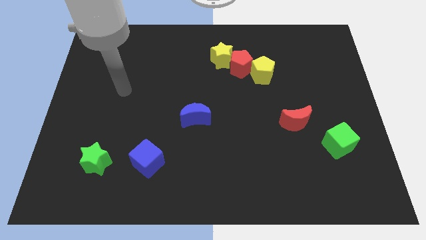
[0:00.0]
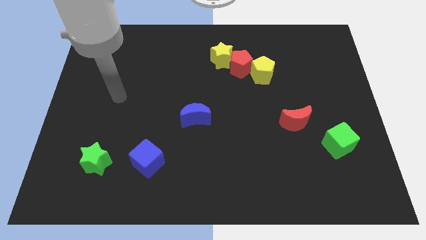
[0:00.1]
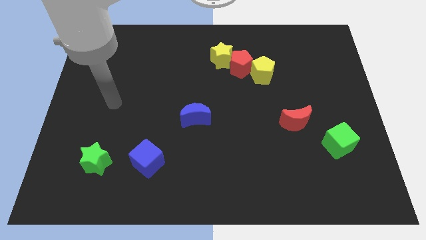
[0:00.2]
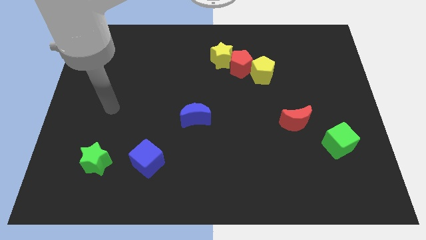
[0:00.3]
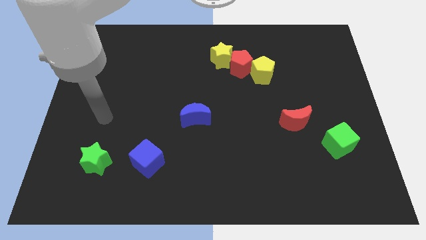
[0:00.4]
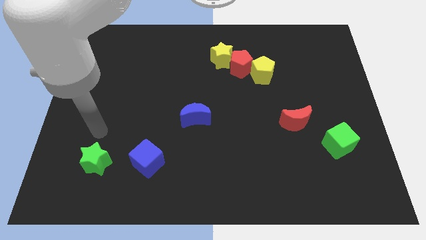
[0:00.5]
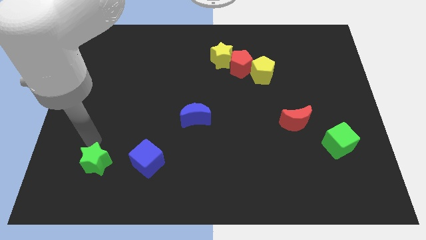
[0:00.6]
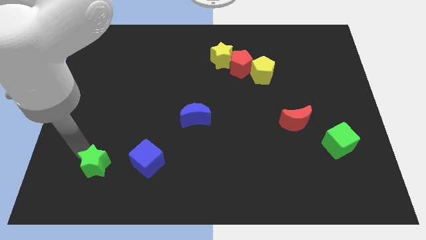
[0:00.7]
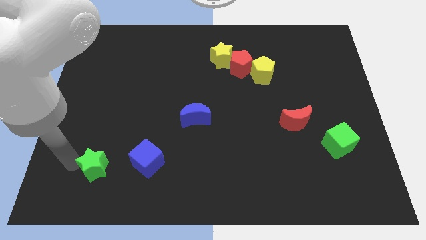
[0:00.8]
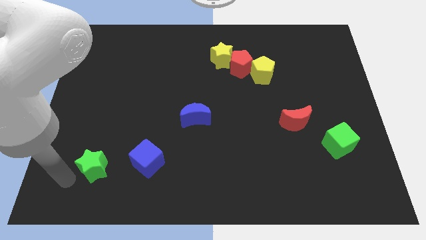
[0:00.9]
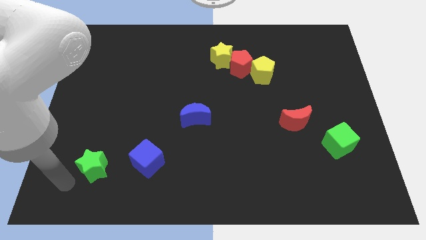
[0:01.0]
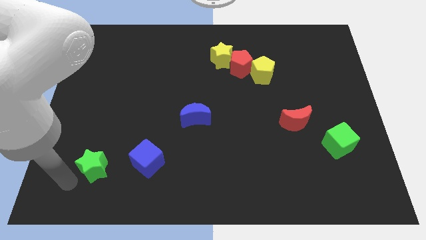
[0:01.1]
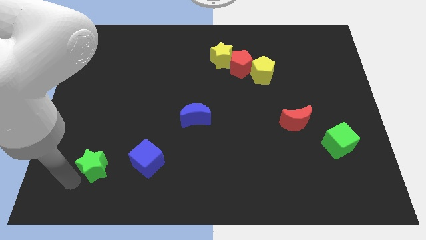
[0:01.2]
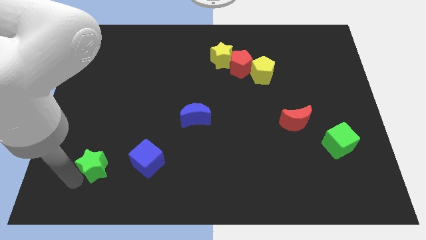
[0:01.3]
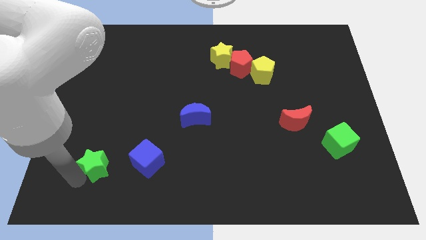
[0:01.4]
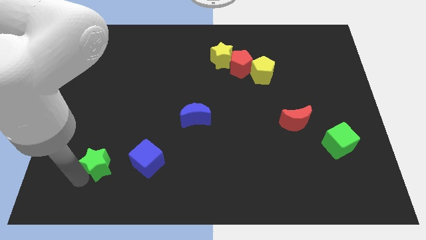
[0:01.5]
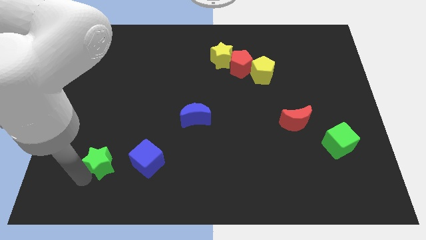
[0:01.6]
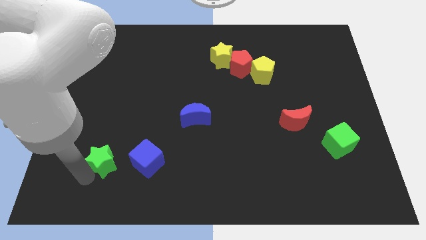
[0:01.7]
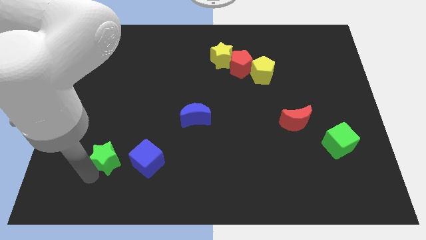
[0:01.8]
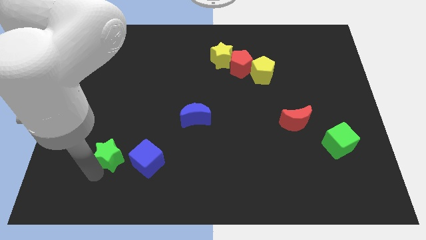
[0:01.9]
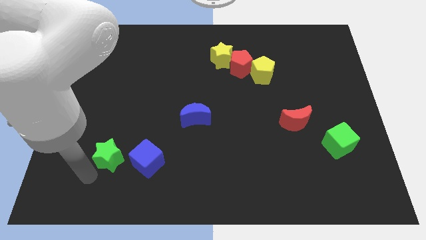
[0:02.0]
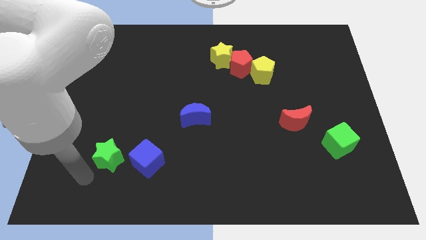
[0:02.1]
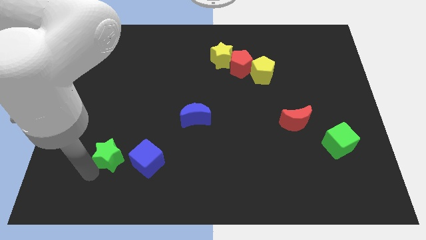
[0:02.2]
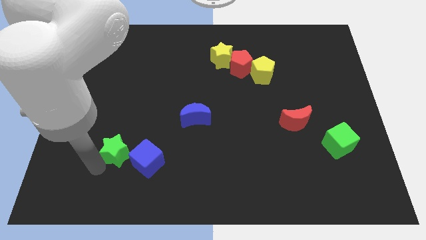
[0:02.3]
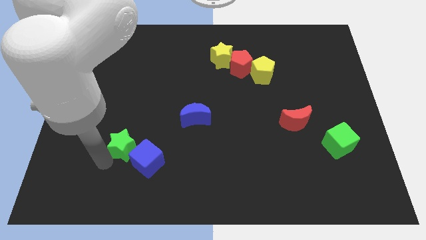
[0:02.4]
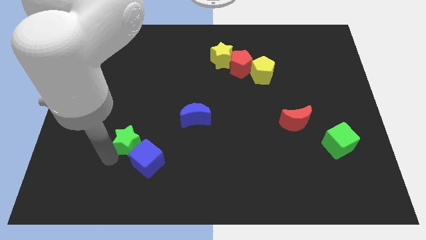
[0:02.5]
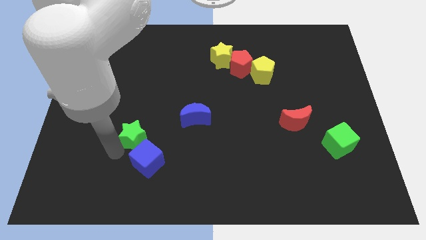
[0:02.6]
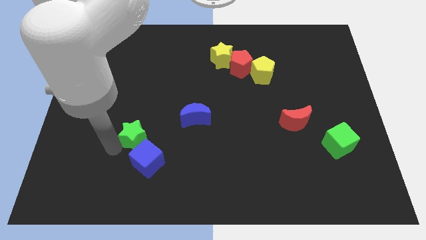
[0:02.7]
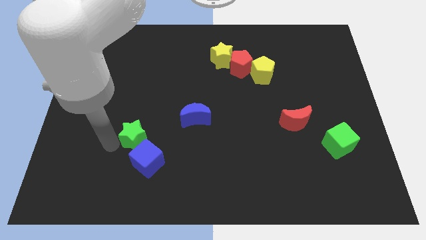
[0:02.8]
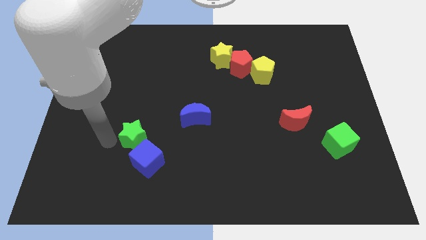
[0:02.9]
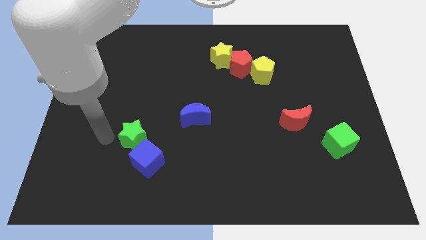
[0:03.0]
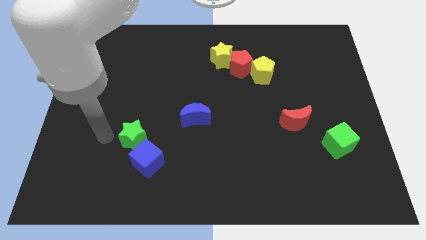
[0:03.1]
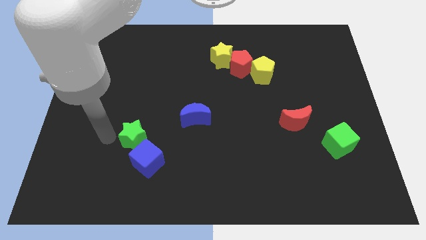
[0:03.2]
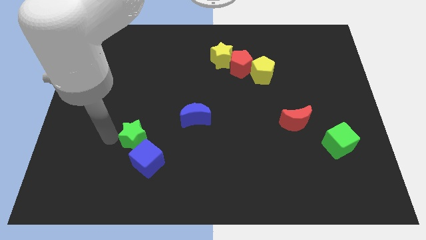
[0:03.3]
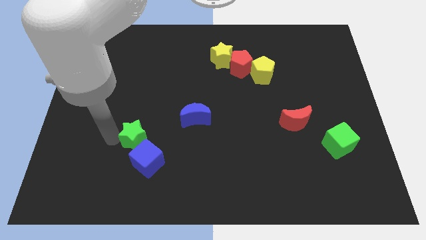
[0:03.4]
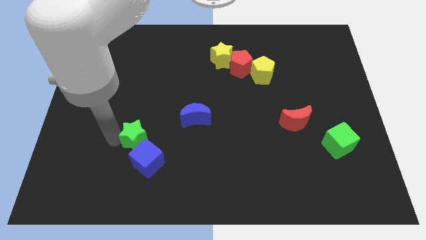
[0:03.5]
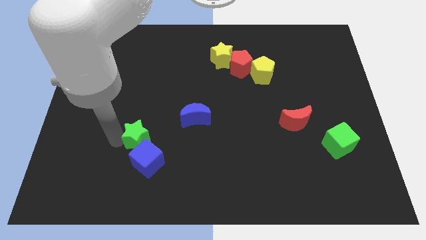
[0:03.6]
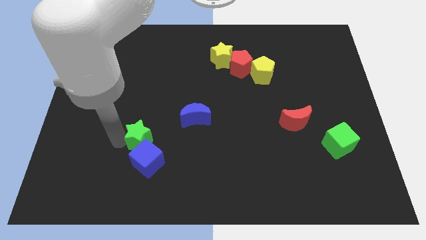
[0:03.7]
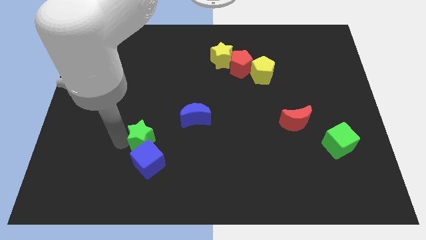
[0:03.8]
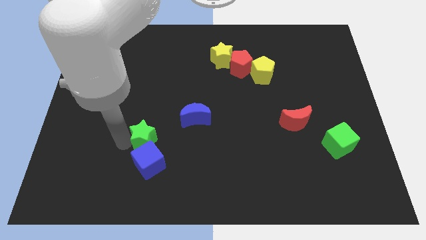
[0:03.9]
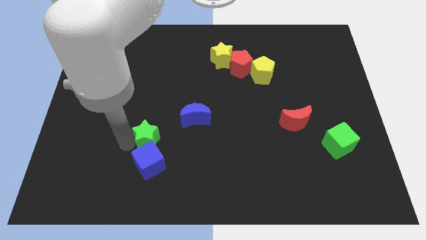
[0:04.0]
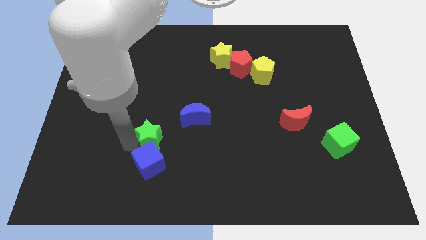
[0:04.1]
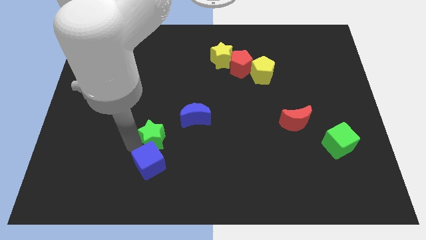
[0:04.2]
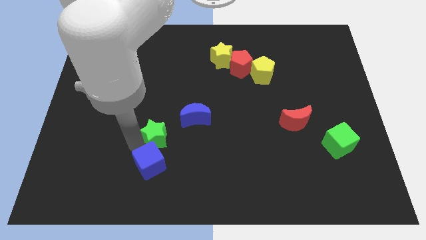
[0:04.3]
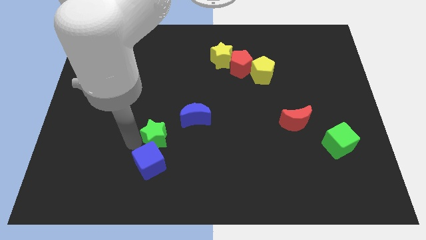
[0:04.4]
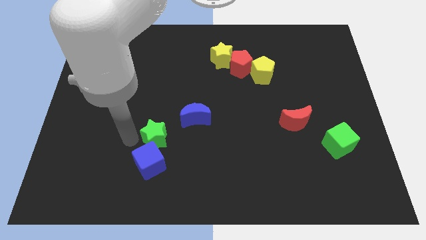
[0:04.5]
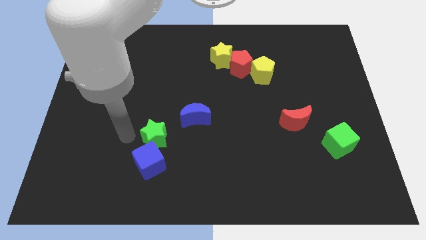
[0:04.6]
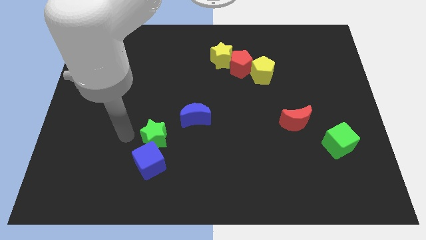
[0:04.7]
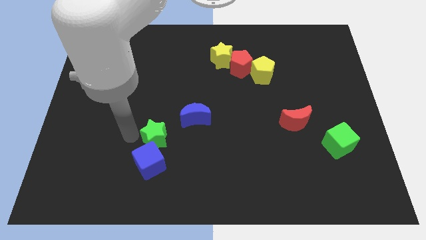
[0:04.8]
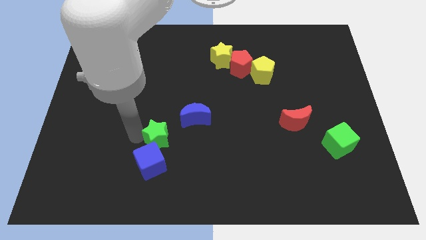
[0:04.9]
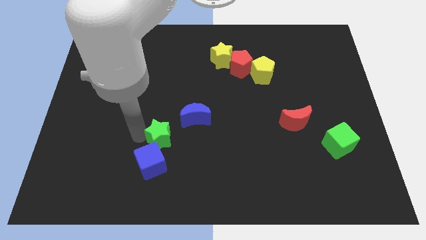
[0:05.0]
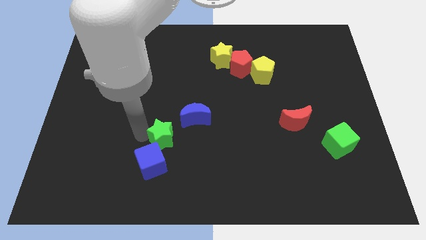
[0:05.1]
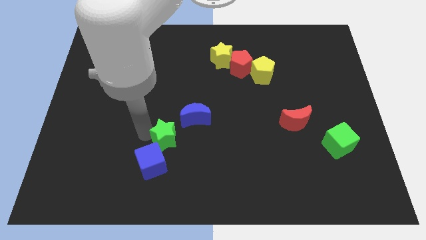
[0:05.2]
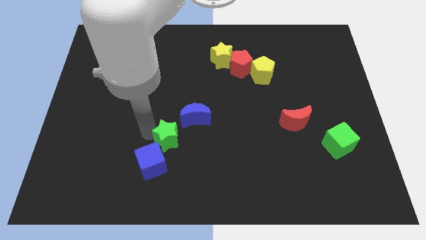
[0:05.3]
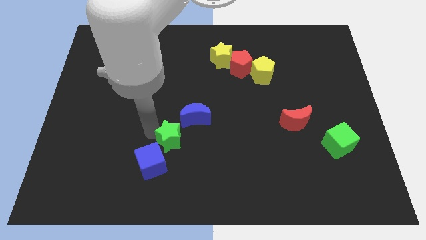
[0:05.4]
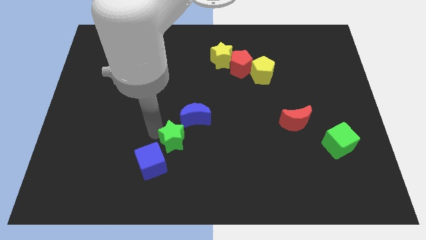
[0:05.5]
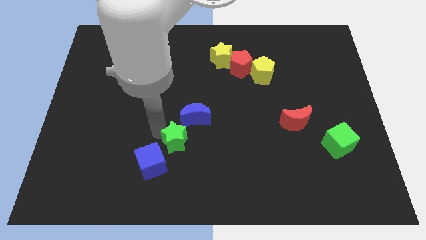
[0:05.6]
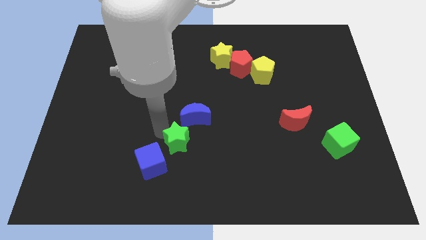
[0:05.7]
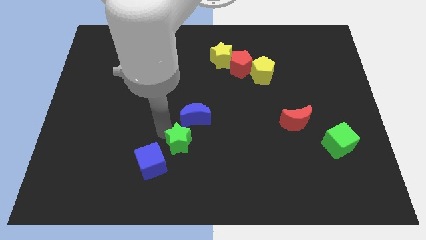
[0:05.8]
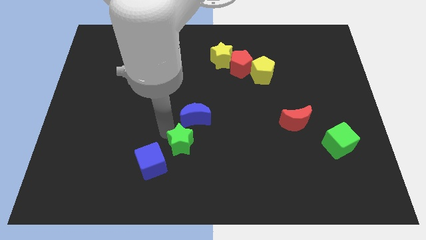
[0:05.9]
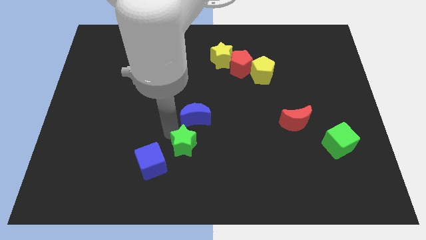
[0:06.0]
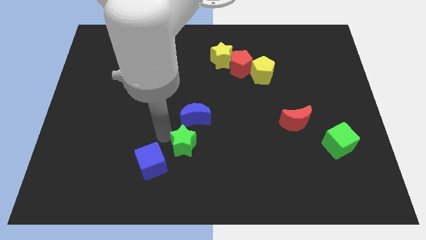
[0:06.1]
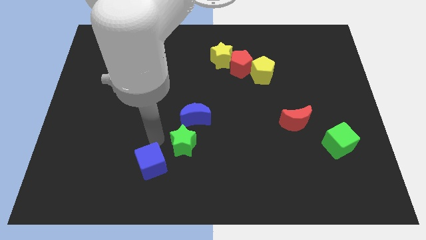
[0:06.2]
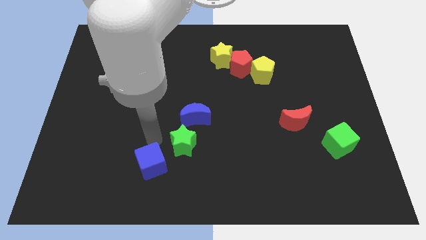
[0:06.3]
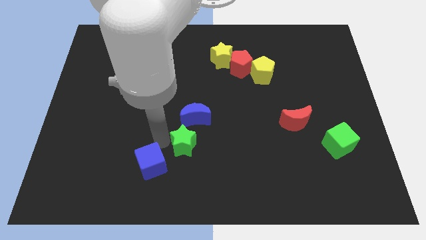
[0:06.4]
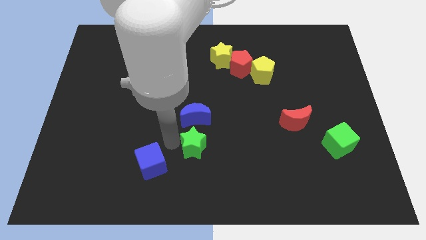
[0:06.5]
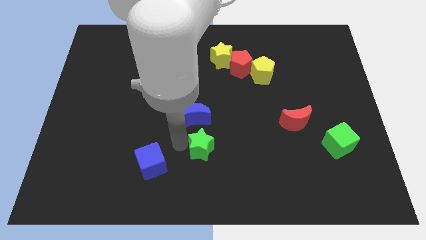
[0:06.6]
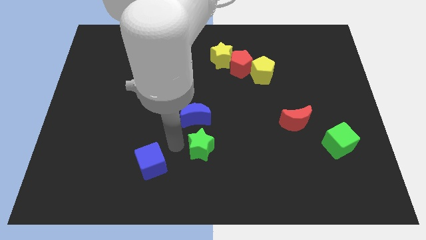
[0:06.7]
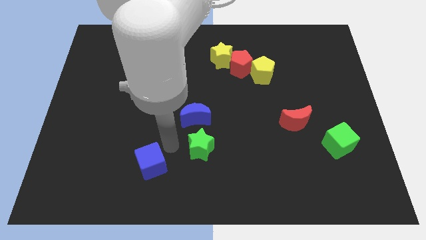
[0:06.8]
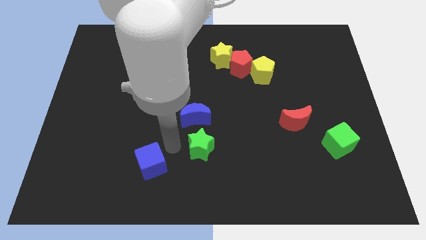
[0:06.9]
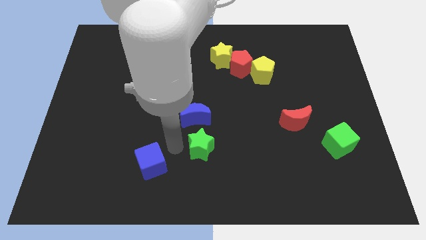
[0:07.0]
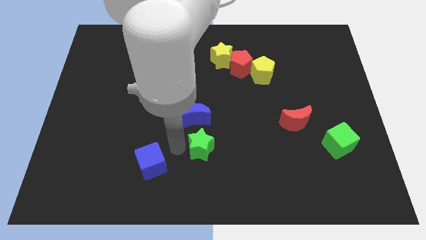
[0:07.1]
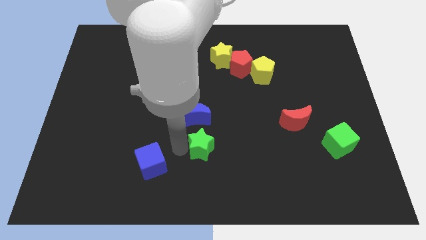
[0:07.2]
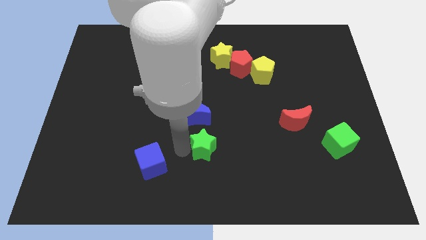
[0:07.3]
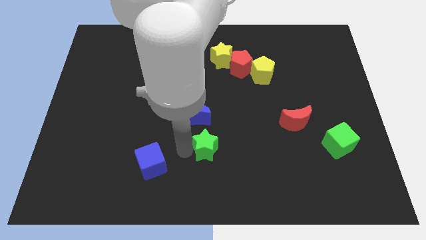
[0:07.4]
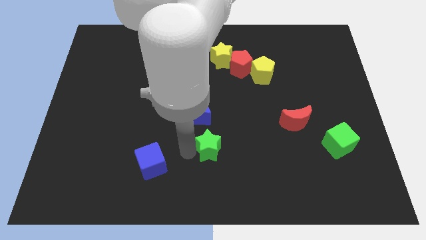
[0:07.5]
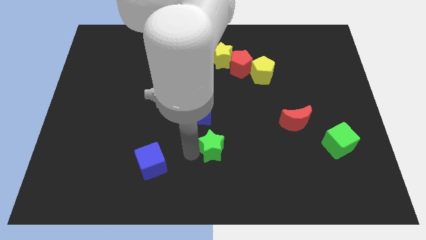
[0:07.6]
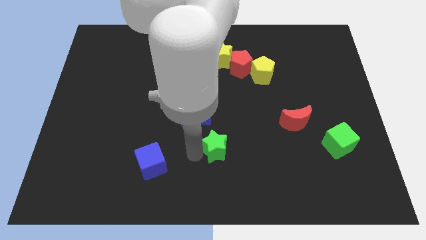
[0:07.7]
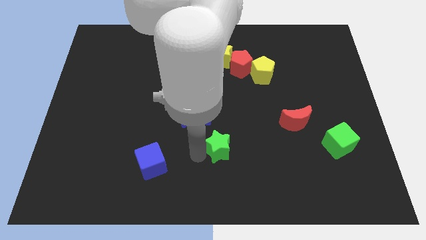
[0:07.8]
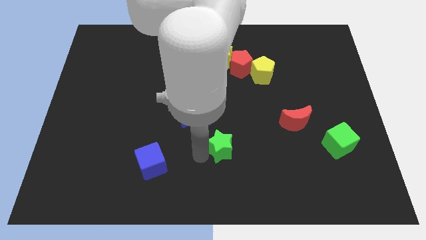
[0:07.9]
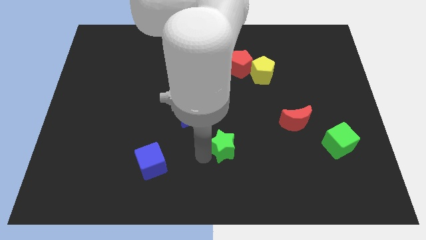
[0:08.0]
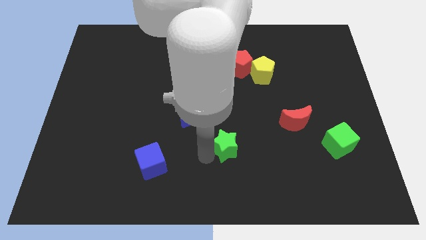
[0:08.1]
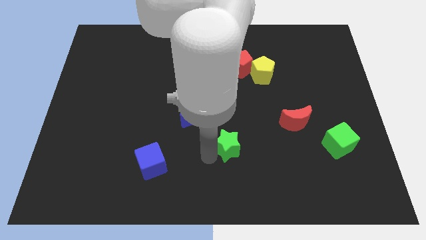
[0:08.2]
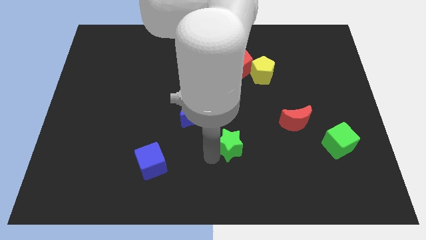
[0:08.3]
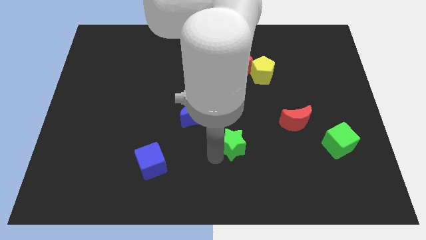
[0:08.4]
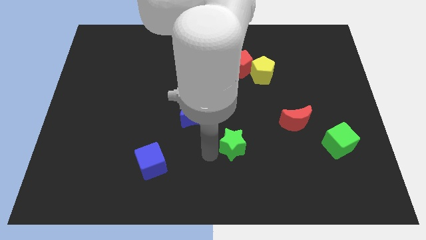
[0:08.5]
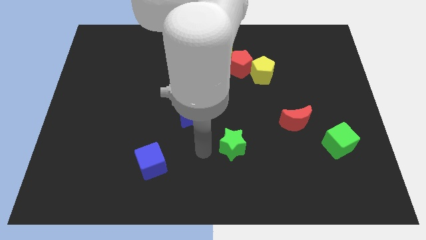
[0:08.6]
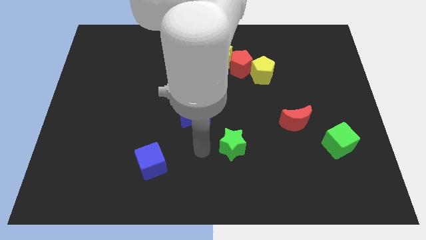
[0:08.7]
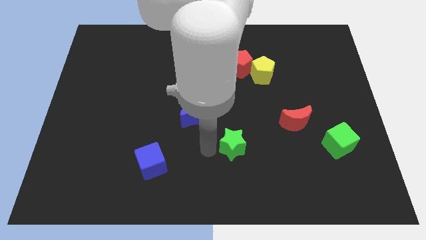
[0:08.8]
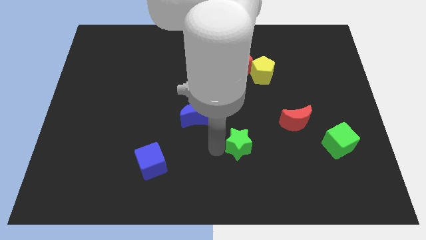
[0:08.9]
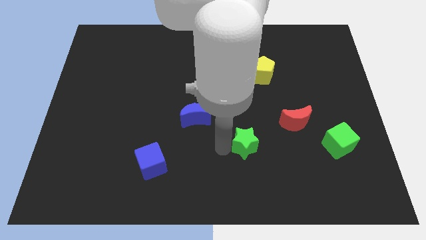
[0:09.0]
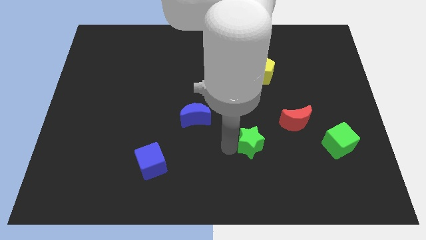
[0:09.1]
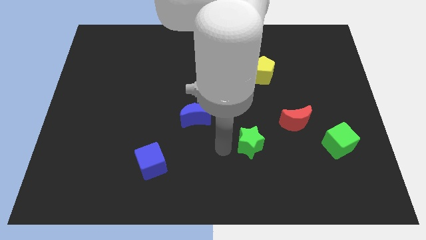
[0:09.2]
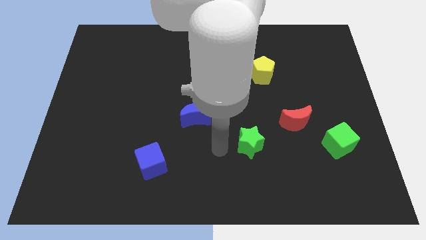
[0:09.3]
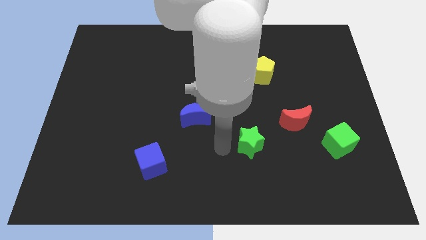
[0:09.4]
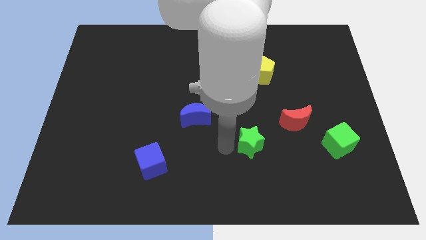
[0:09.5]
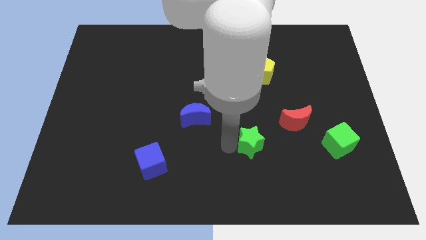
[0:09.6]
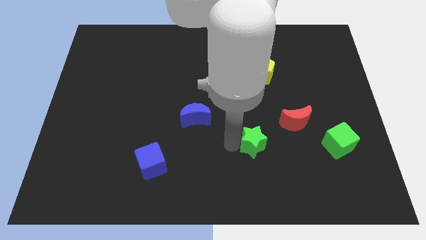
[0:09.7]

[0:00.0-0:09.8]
push the green star to the bottom left side of the red moon
